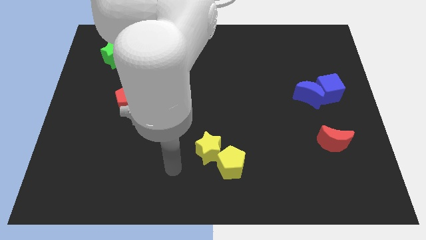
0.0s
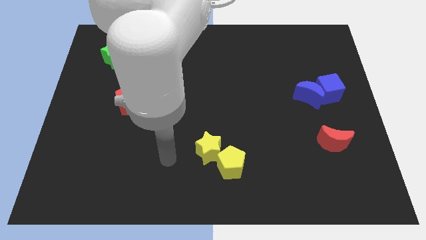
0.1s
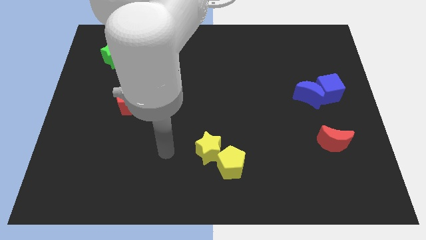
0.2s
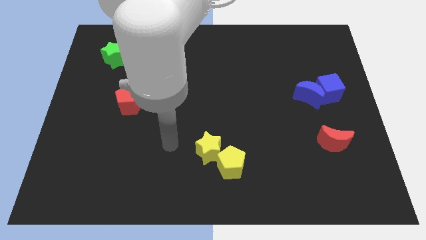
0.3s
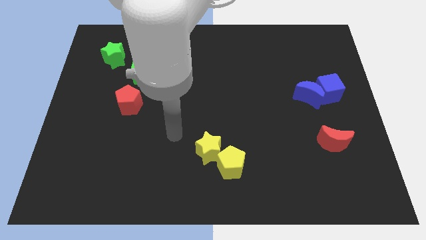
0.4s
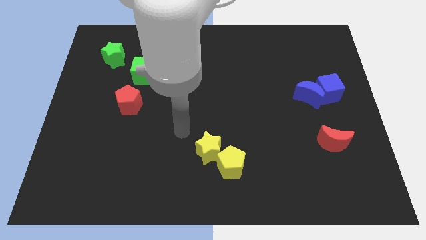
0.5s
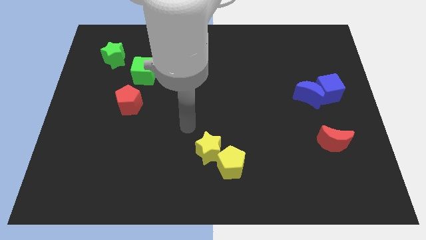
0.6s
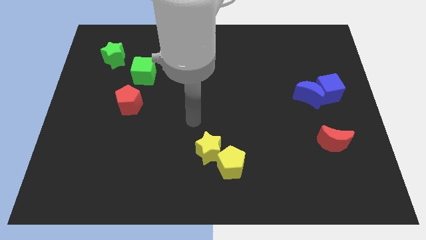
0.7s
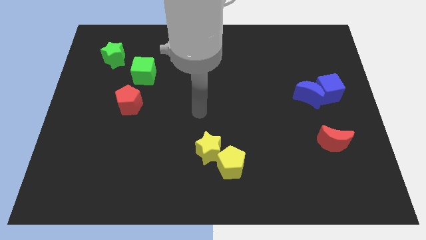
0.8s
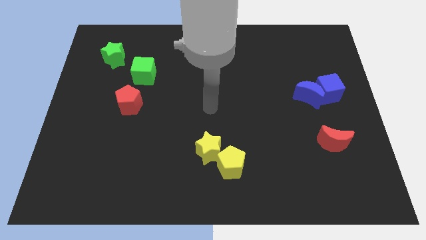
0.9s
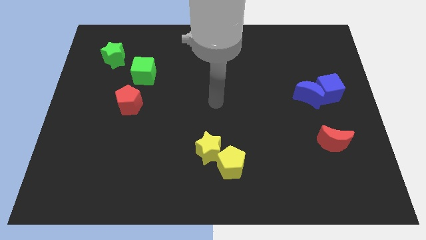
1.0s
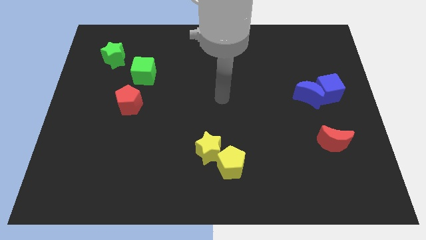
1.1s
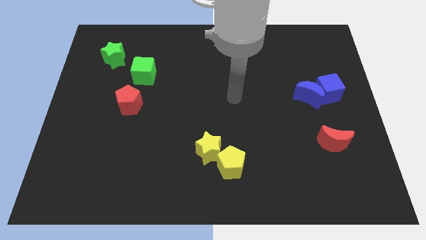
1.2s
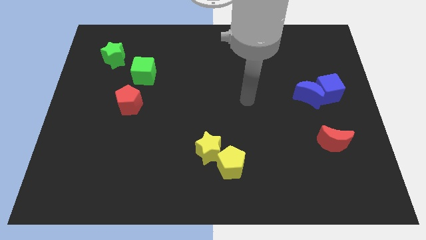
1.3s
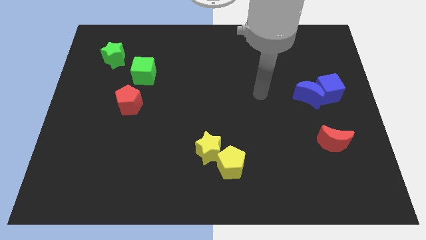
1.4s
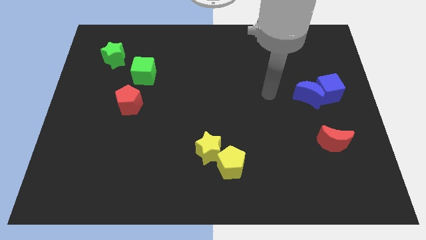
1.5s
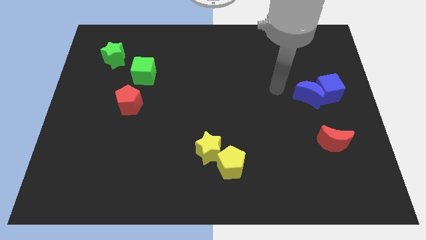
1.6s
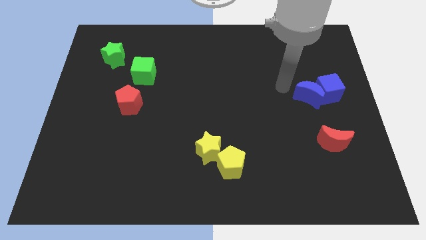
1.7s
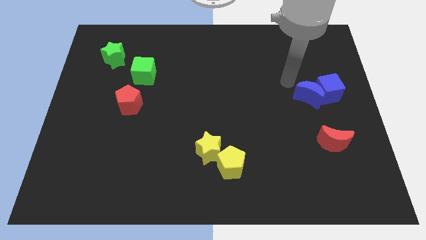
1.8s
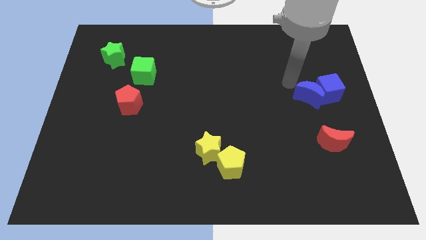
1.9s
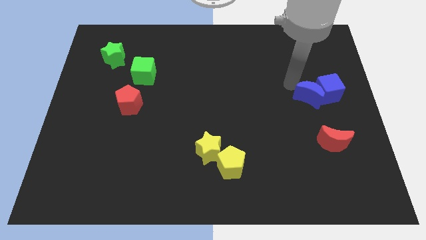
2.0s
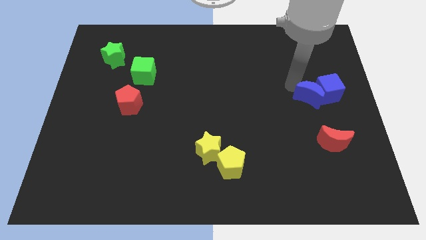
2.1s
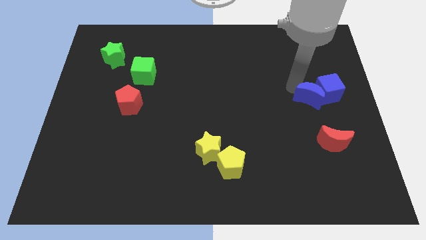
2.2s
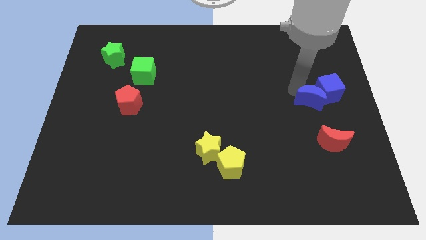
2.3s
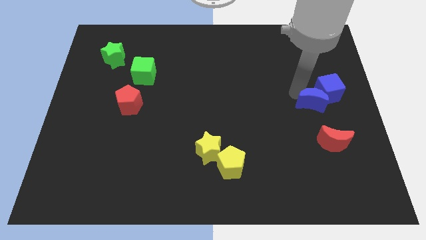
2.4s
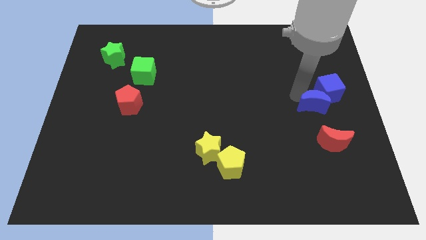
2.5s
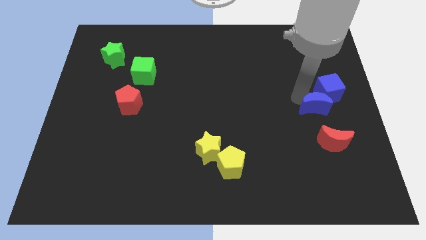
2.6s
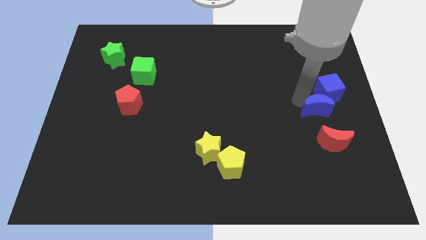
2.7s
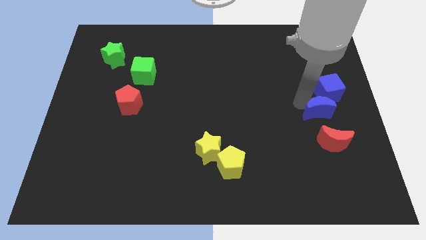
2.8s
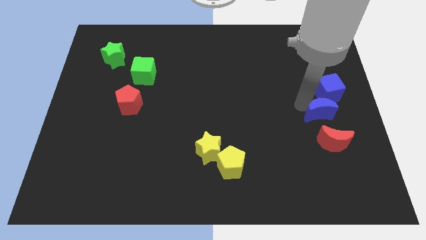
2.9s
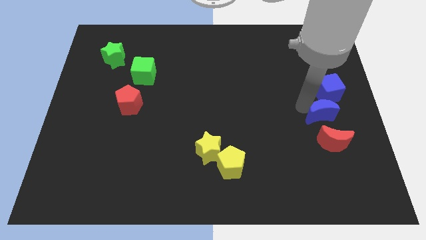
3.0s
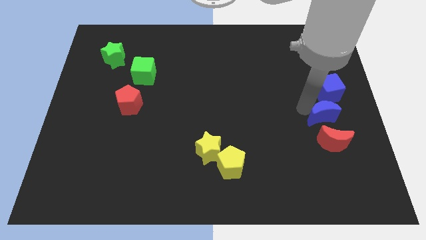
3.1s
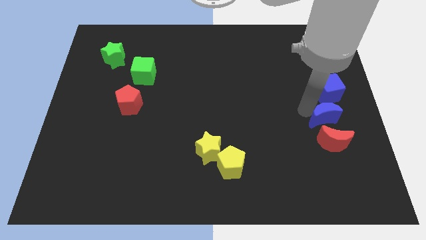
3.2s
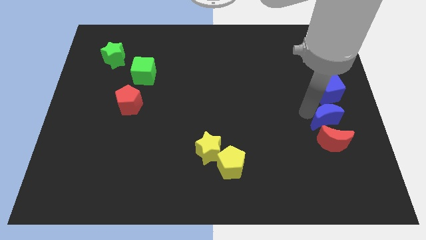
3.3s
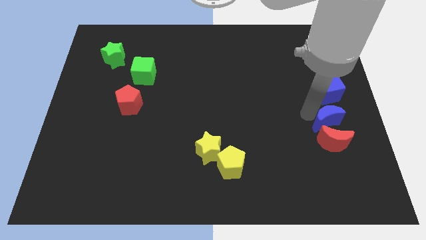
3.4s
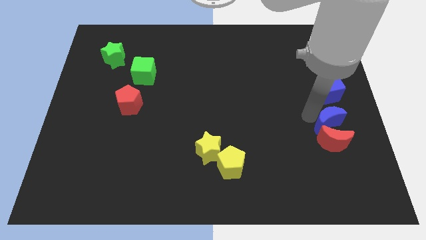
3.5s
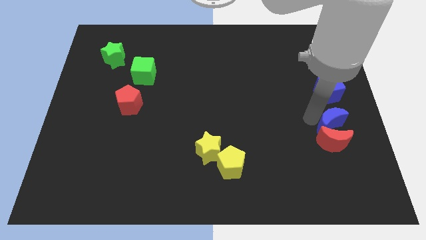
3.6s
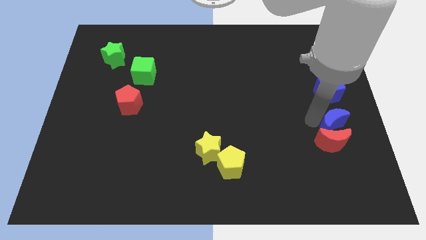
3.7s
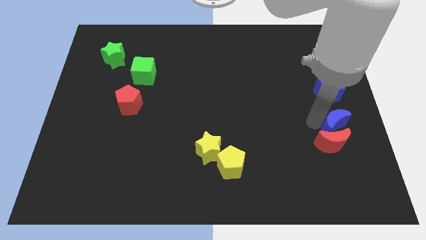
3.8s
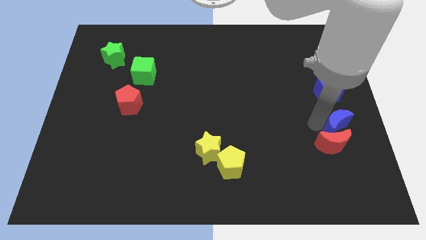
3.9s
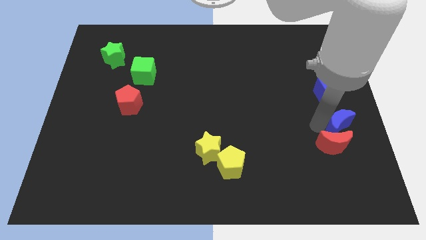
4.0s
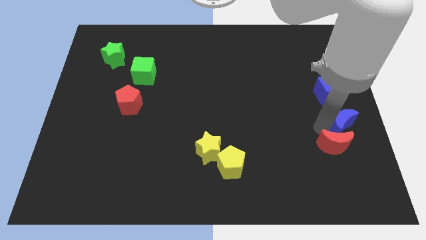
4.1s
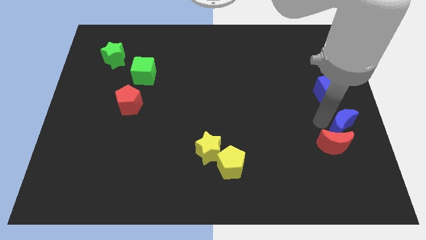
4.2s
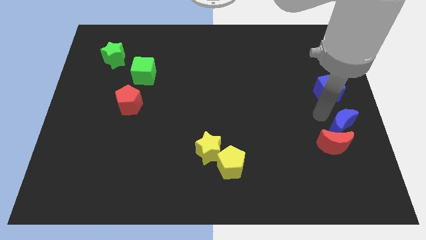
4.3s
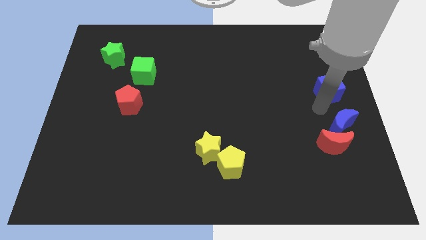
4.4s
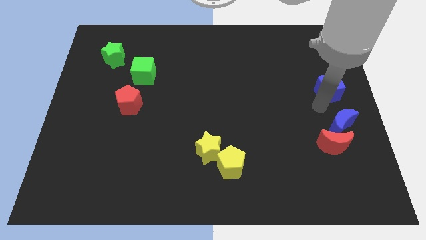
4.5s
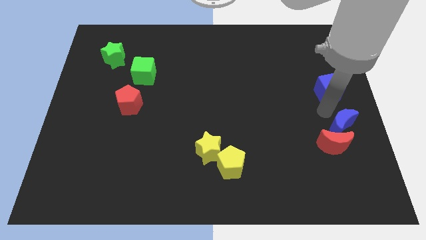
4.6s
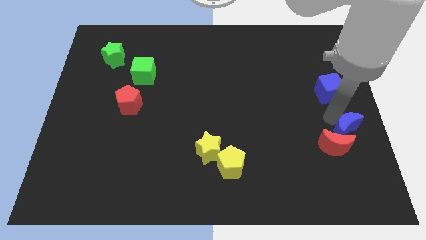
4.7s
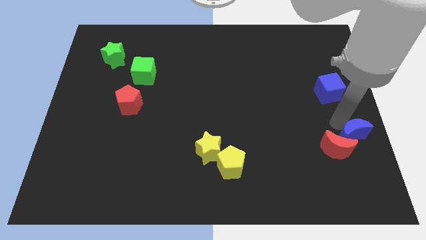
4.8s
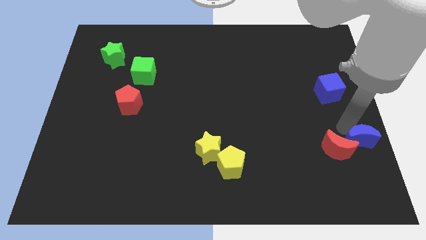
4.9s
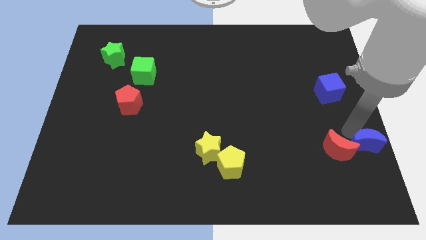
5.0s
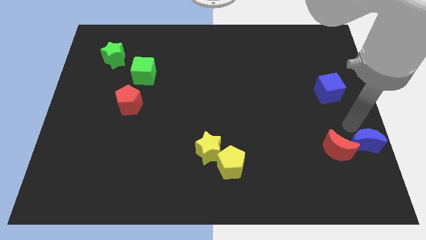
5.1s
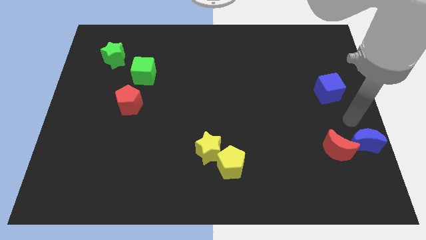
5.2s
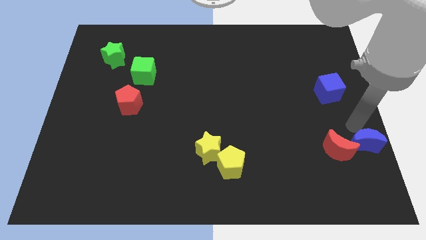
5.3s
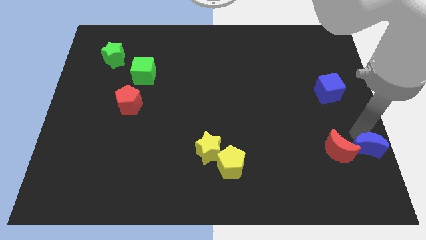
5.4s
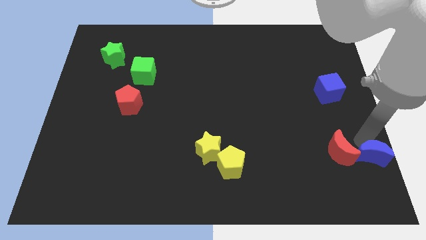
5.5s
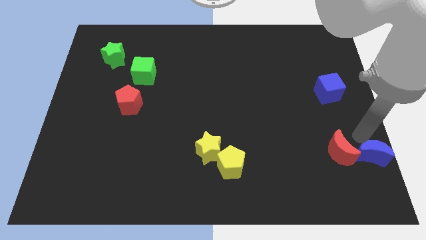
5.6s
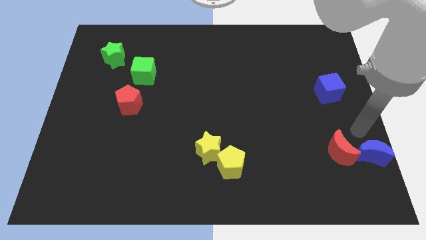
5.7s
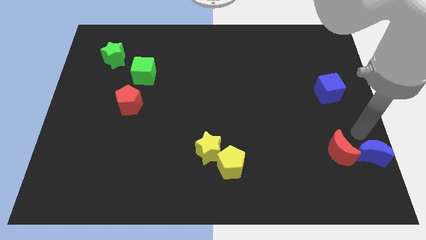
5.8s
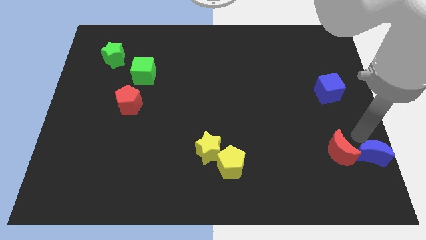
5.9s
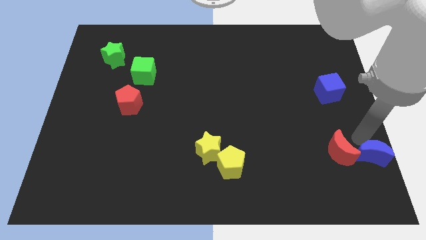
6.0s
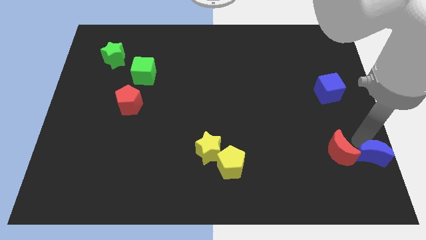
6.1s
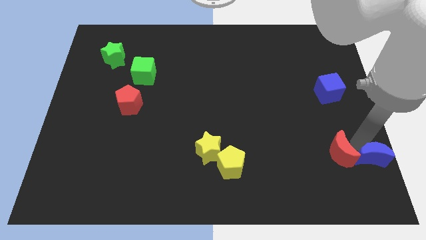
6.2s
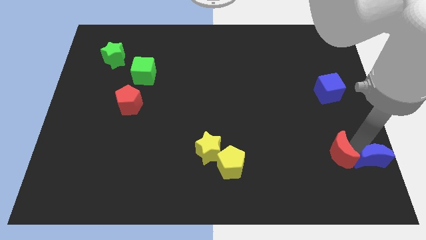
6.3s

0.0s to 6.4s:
push the blue moon to the bottom right
